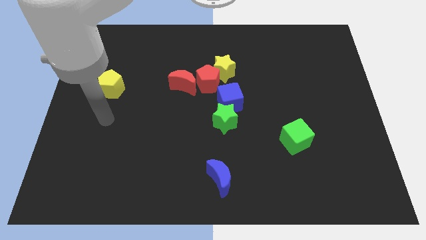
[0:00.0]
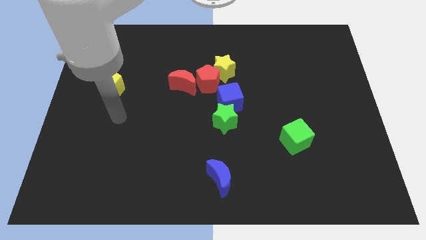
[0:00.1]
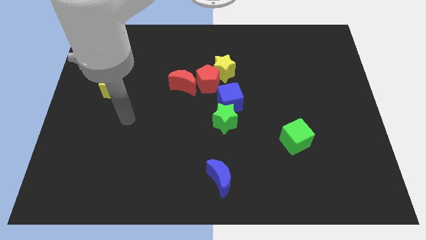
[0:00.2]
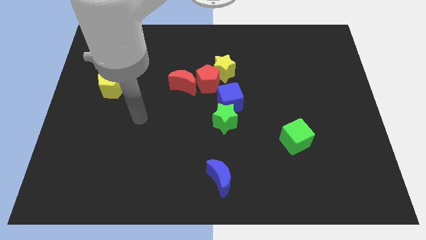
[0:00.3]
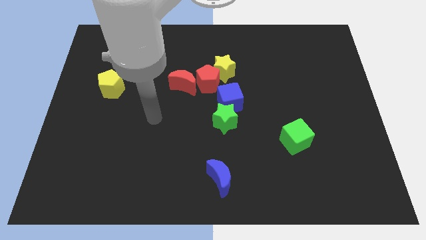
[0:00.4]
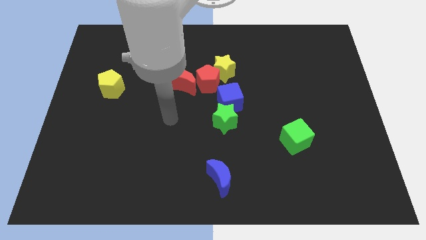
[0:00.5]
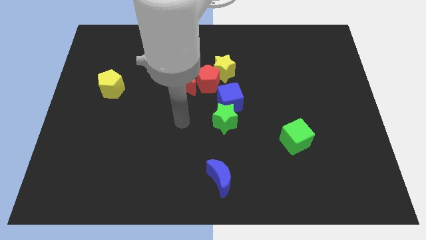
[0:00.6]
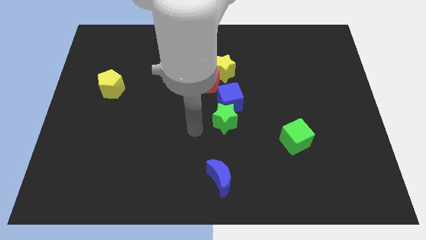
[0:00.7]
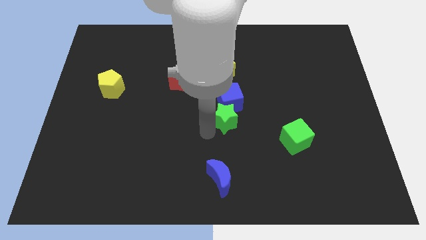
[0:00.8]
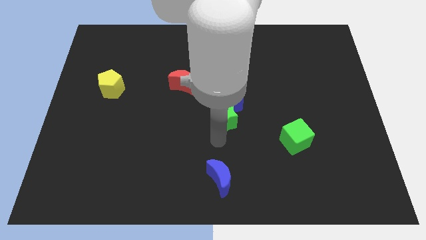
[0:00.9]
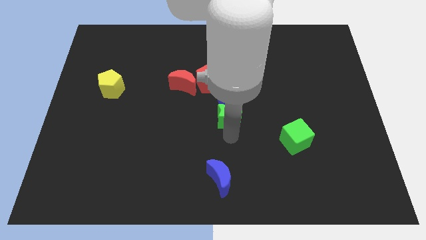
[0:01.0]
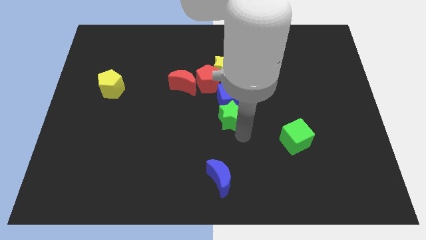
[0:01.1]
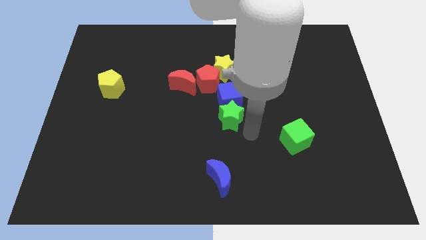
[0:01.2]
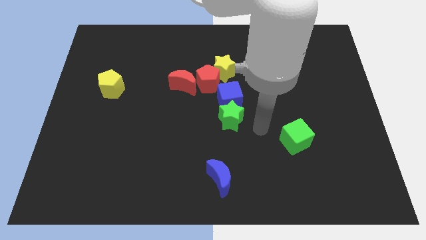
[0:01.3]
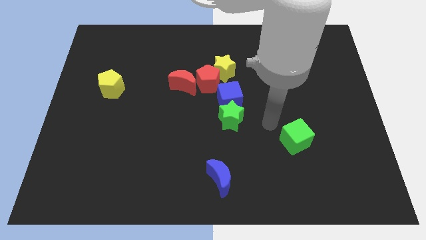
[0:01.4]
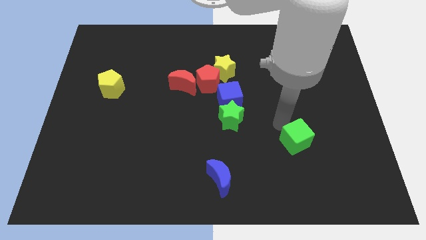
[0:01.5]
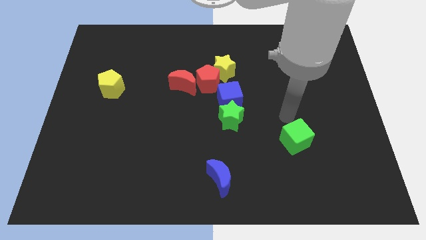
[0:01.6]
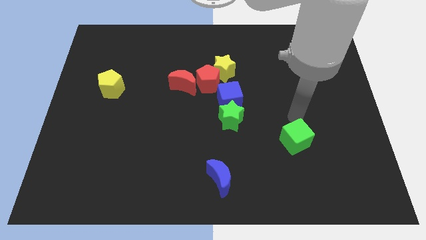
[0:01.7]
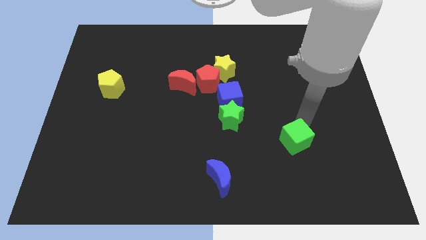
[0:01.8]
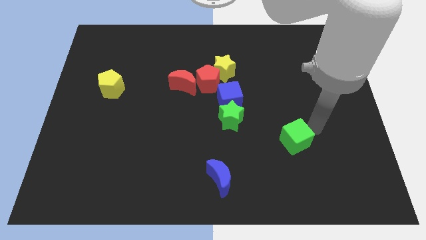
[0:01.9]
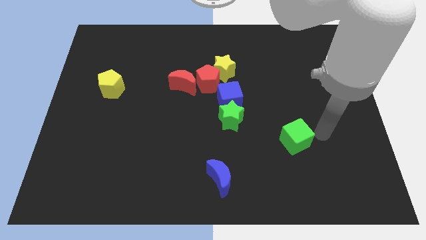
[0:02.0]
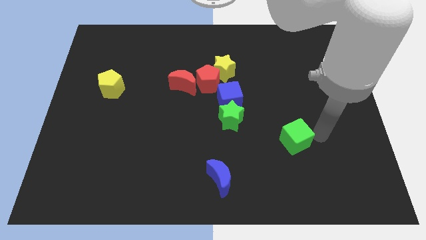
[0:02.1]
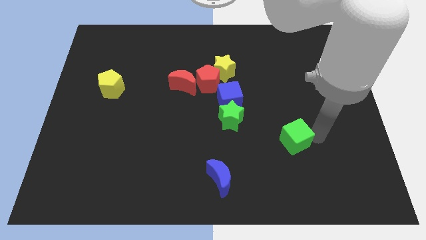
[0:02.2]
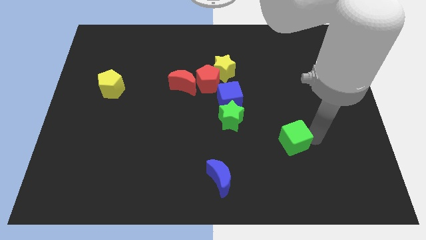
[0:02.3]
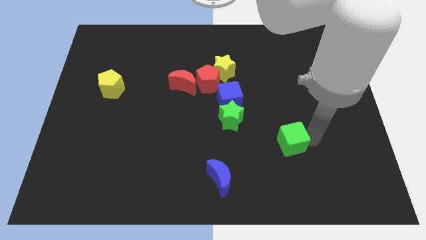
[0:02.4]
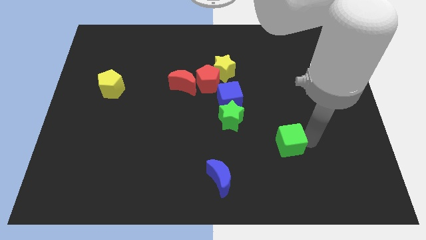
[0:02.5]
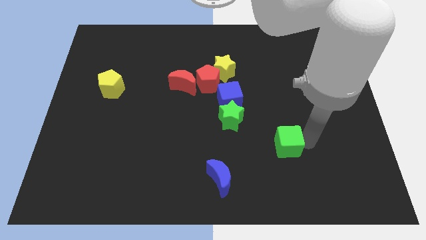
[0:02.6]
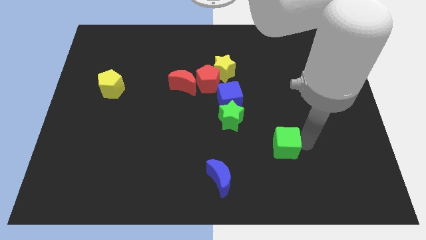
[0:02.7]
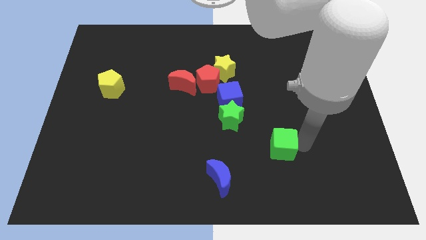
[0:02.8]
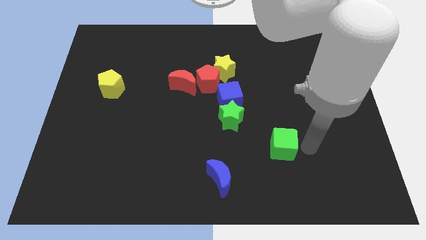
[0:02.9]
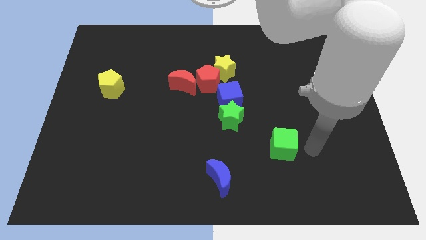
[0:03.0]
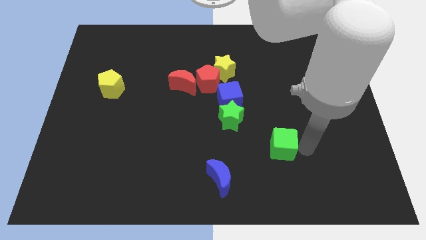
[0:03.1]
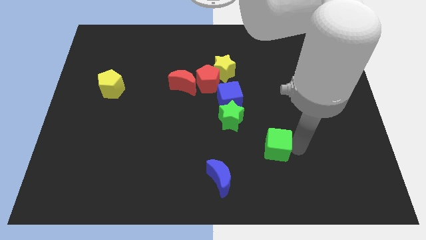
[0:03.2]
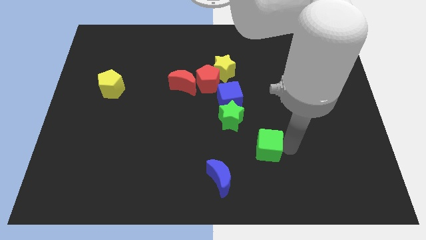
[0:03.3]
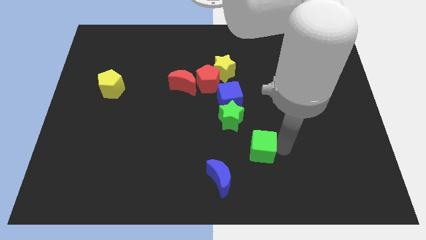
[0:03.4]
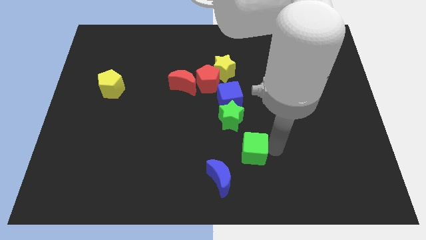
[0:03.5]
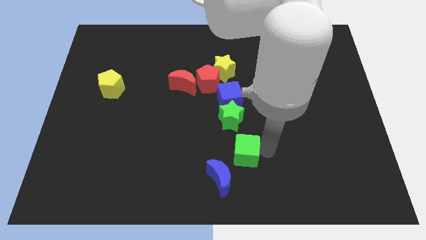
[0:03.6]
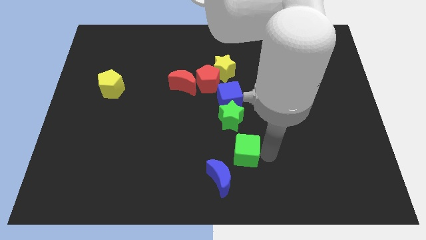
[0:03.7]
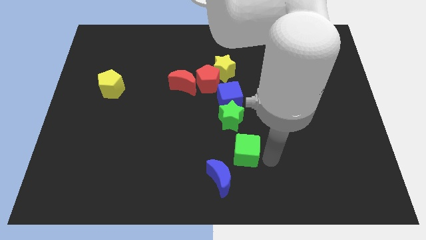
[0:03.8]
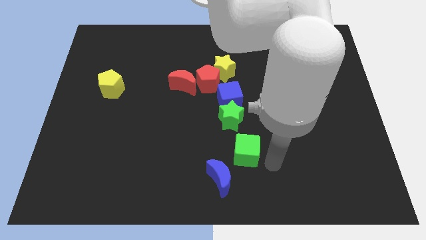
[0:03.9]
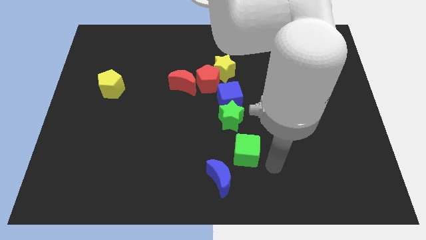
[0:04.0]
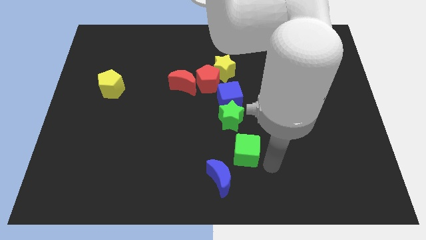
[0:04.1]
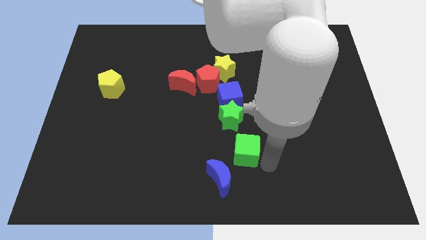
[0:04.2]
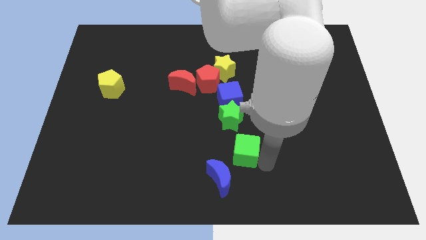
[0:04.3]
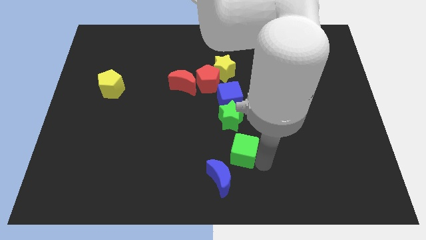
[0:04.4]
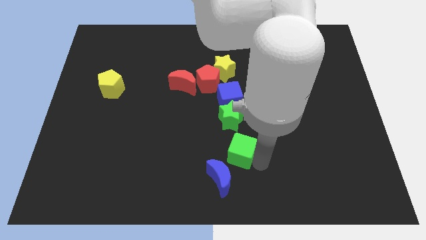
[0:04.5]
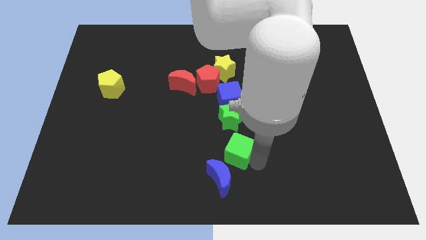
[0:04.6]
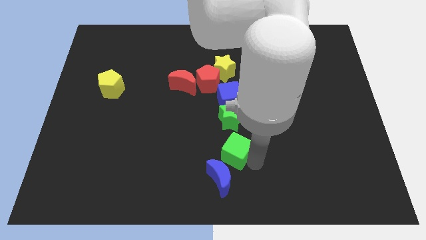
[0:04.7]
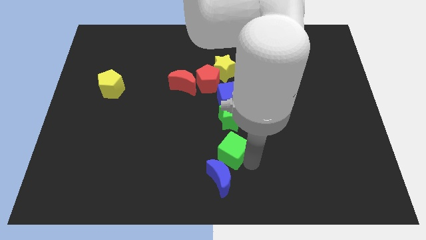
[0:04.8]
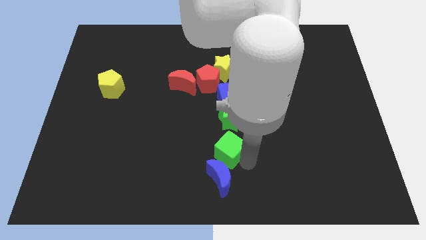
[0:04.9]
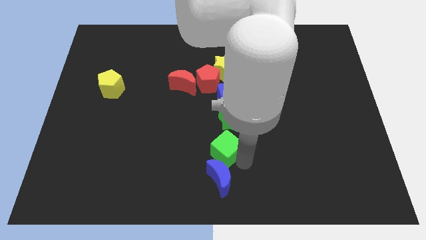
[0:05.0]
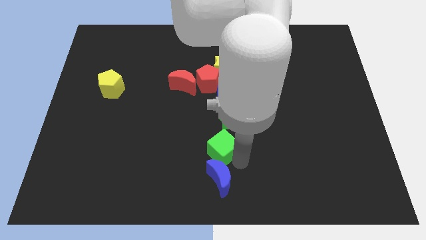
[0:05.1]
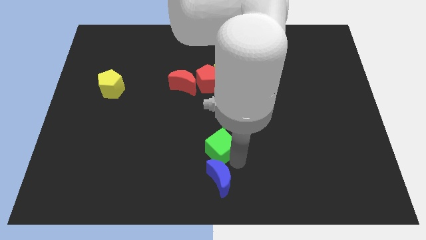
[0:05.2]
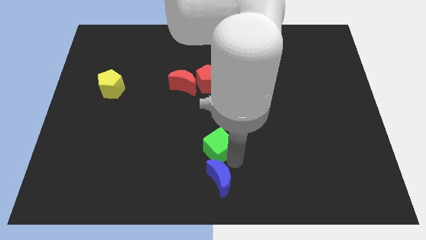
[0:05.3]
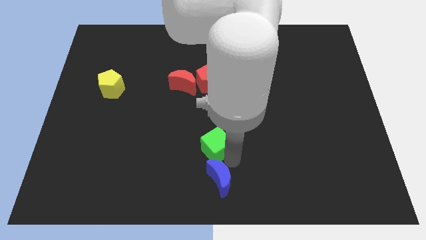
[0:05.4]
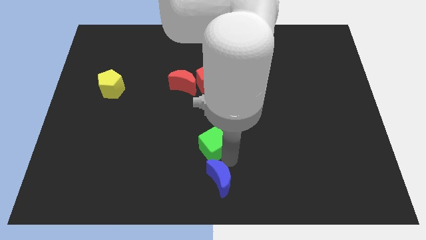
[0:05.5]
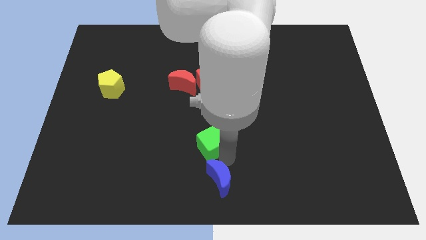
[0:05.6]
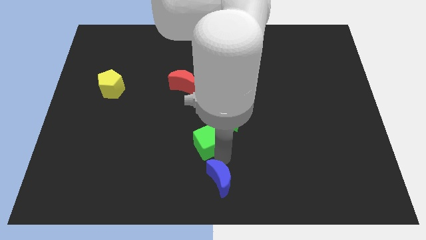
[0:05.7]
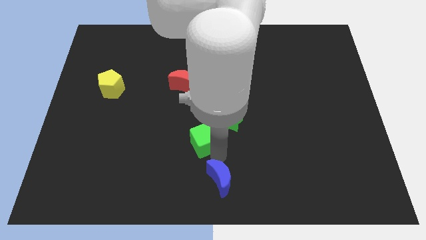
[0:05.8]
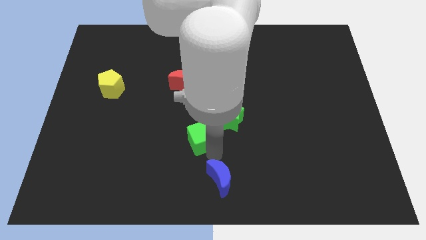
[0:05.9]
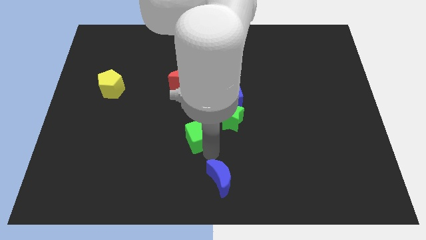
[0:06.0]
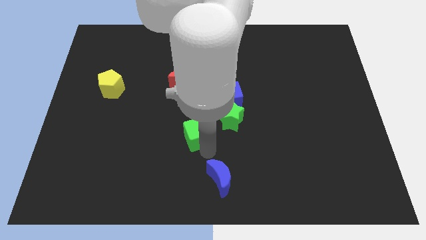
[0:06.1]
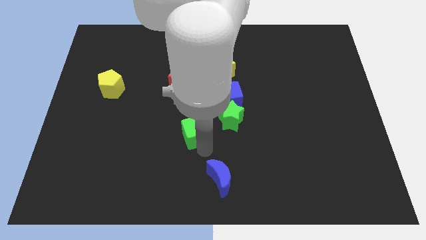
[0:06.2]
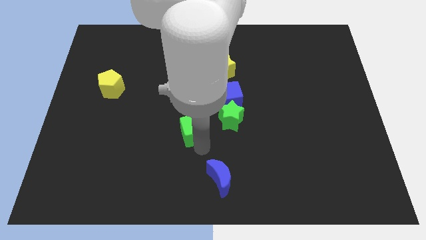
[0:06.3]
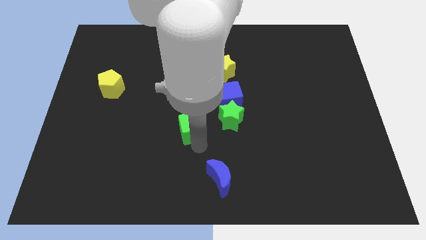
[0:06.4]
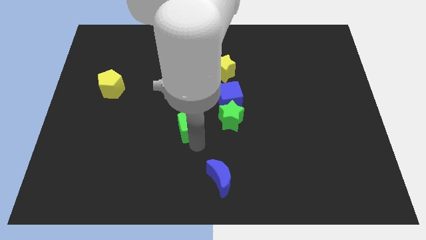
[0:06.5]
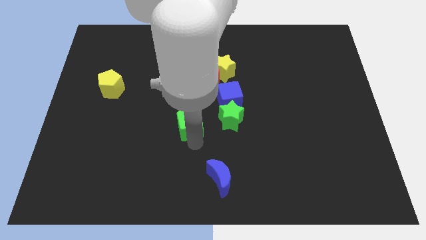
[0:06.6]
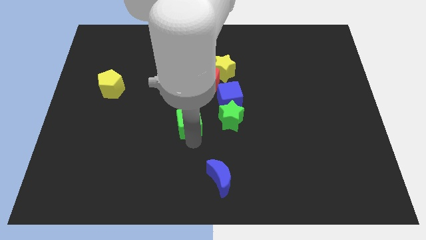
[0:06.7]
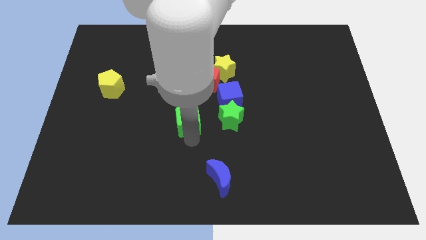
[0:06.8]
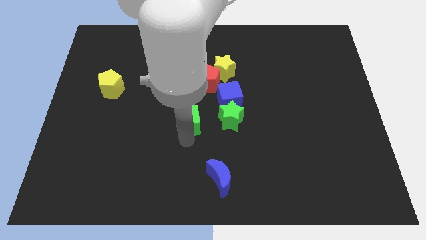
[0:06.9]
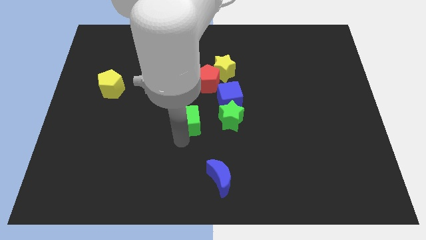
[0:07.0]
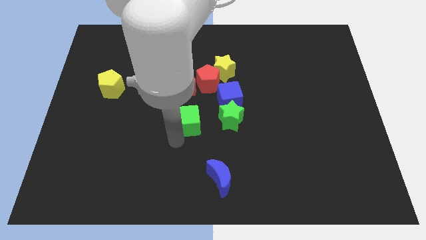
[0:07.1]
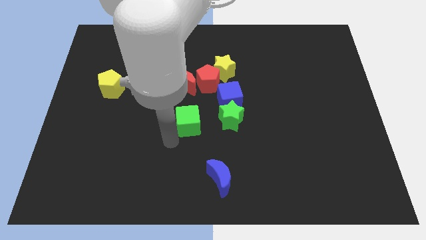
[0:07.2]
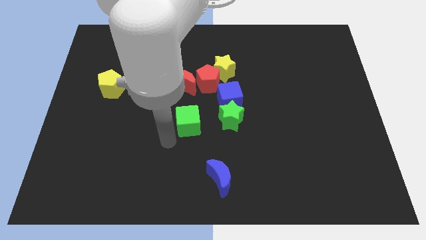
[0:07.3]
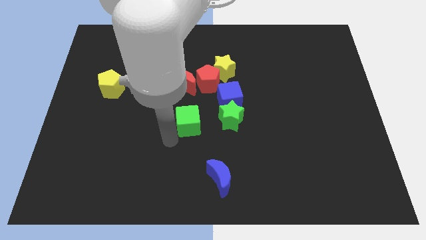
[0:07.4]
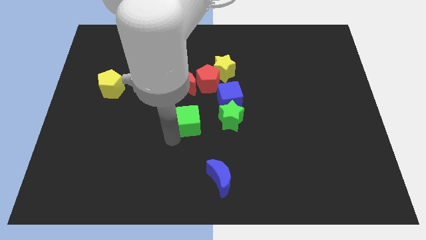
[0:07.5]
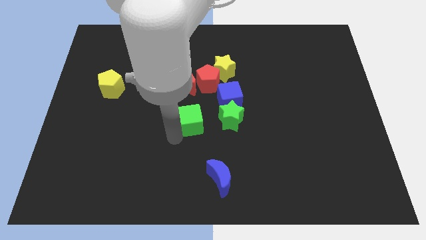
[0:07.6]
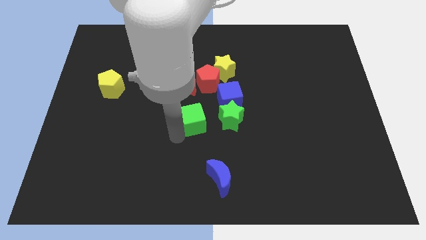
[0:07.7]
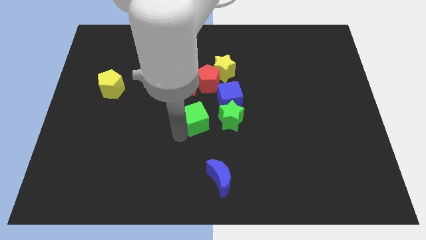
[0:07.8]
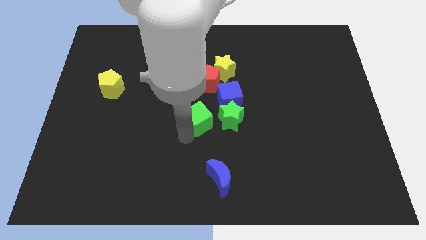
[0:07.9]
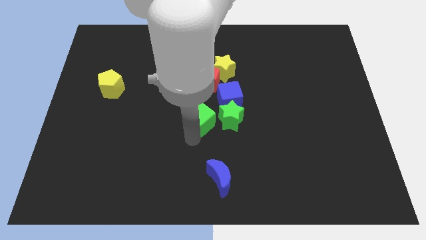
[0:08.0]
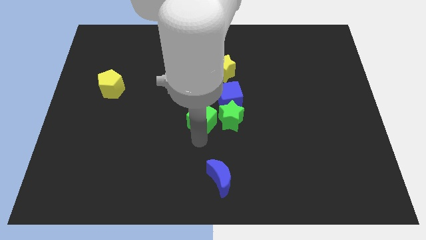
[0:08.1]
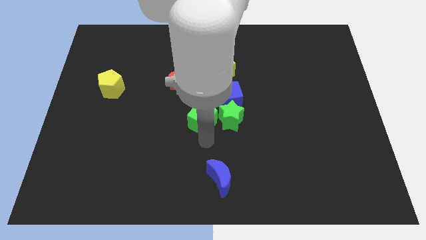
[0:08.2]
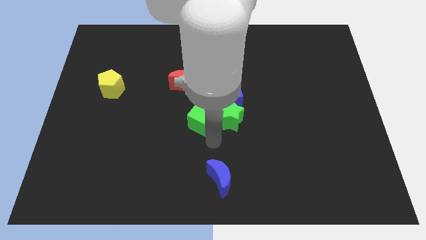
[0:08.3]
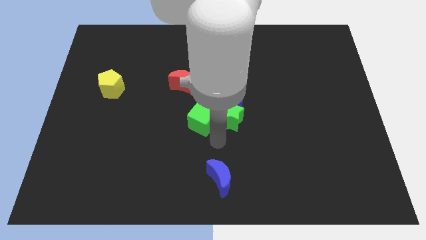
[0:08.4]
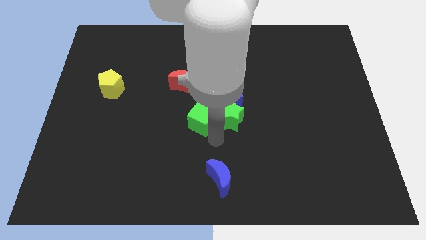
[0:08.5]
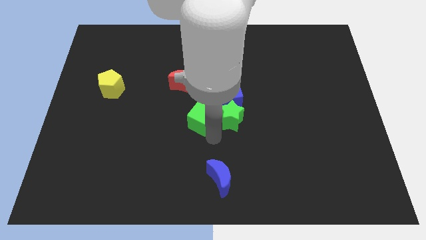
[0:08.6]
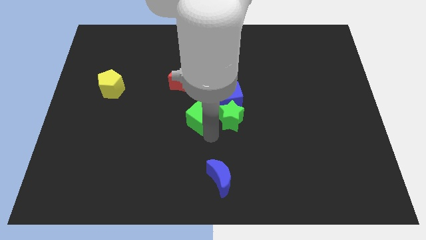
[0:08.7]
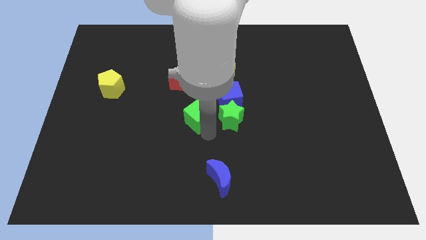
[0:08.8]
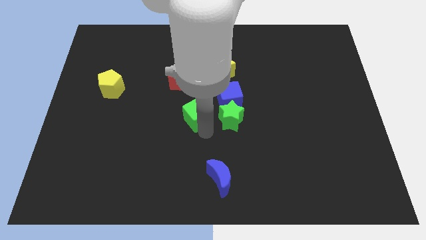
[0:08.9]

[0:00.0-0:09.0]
move the green cube to the left side of the blue cube
